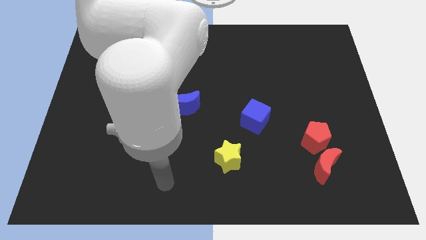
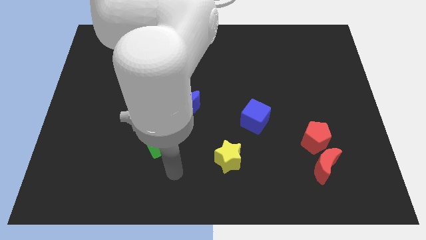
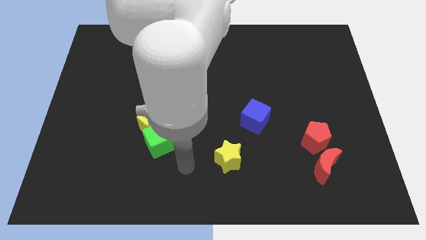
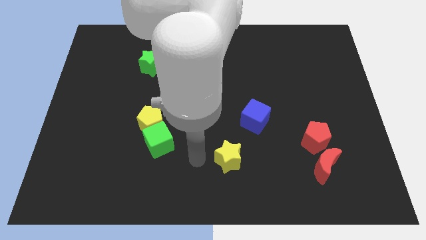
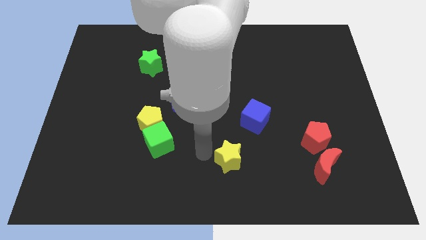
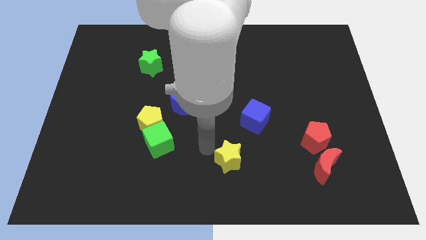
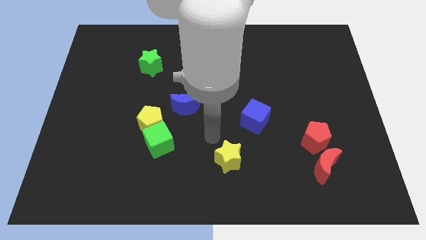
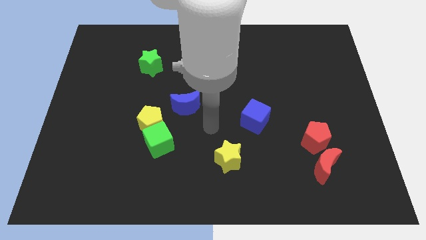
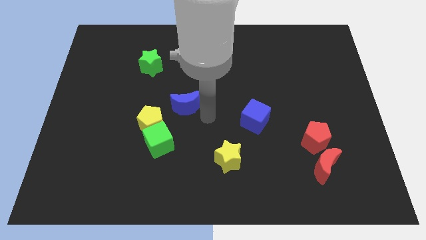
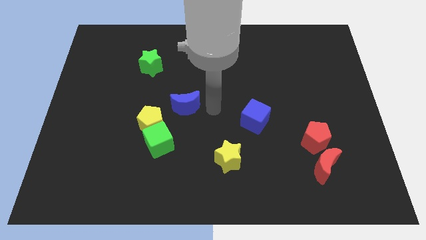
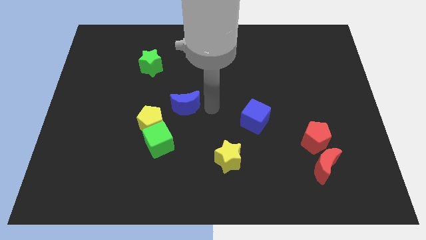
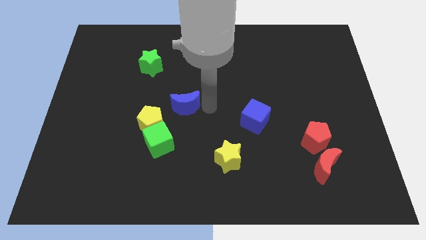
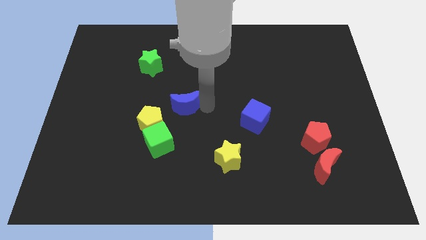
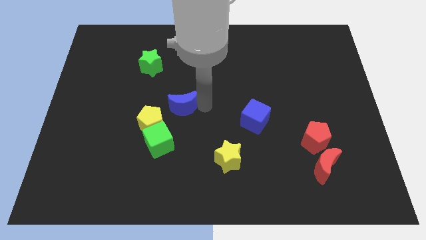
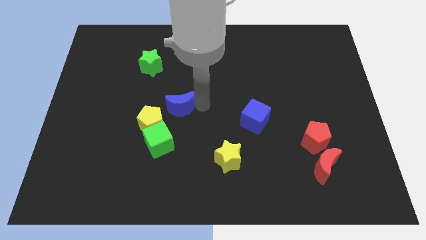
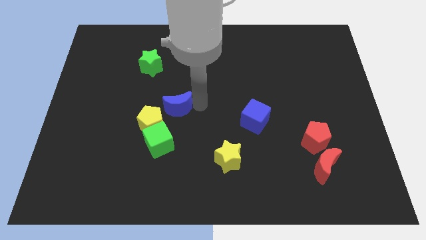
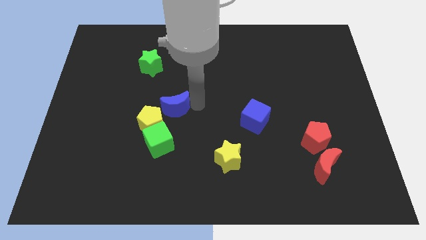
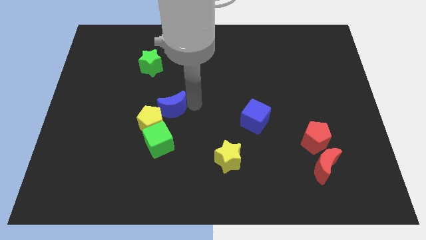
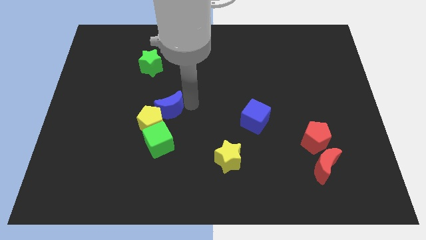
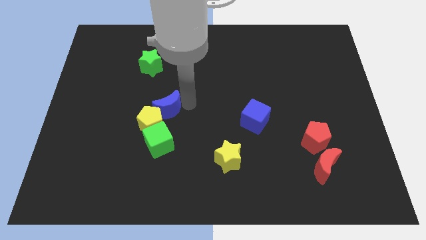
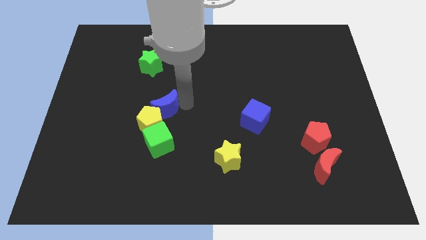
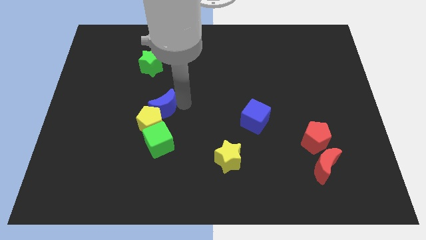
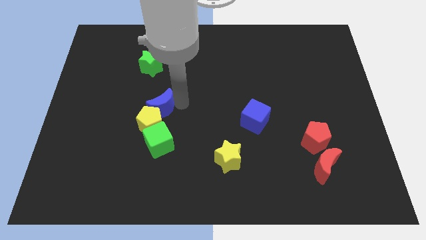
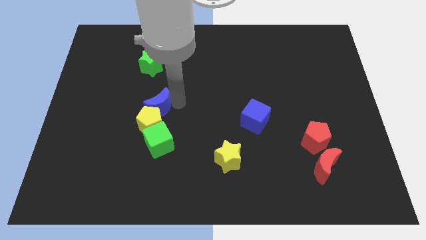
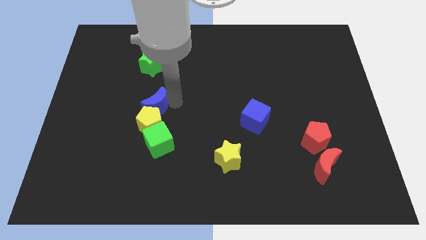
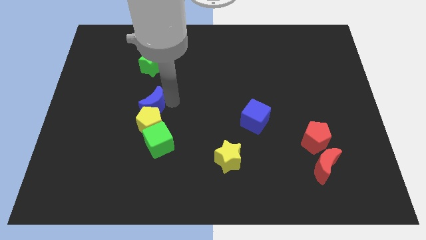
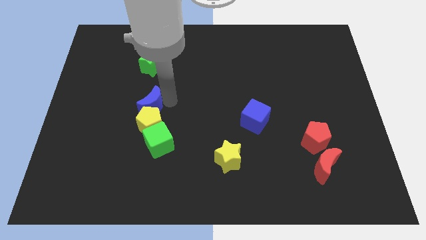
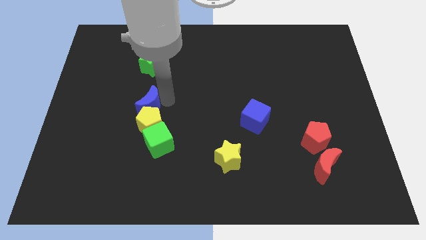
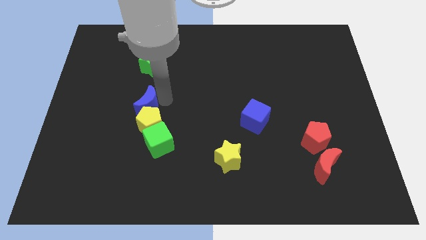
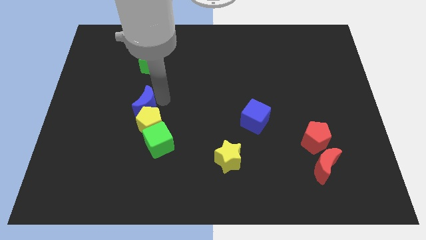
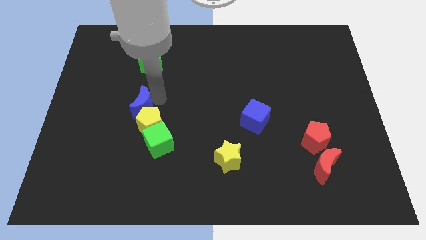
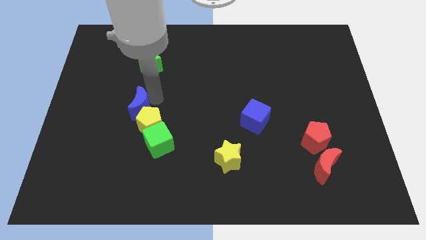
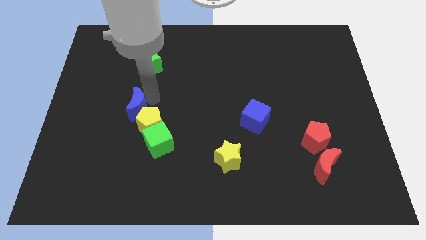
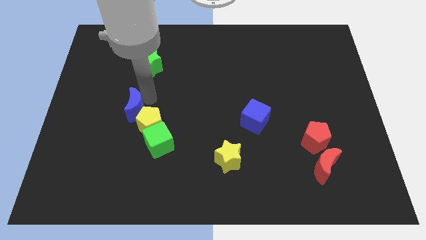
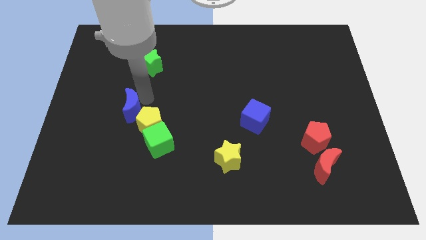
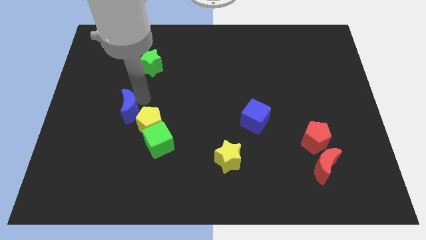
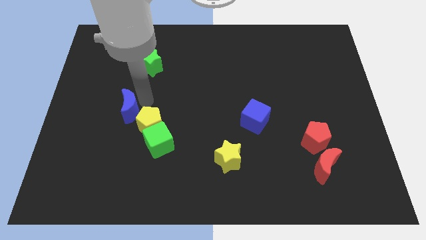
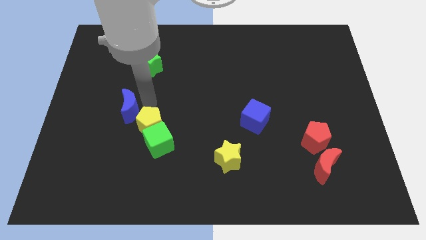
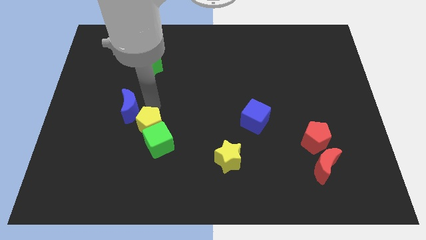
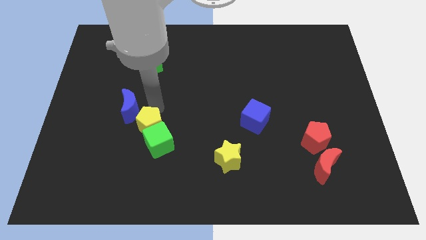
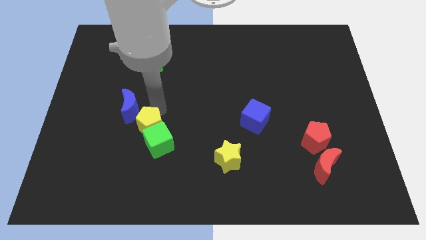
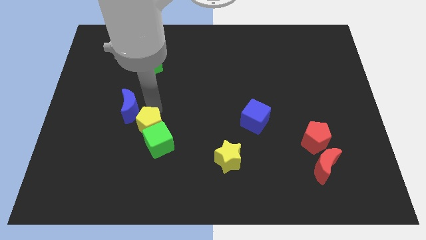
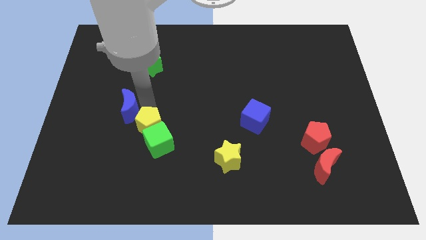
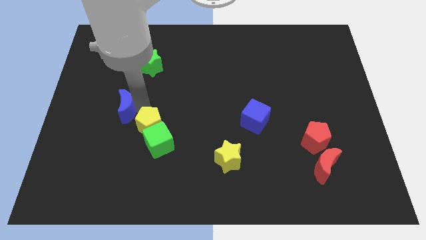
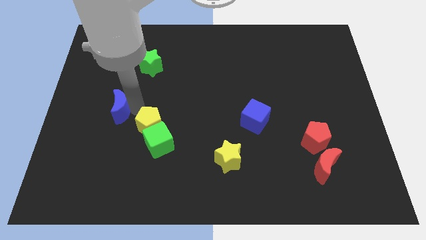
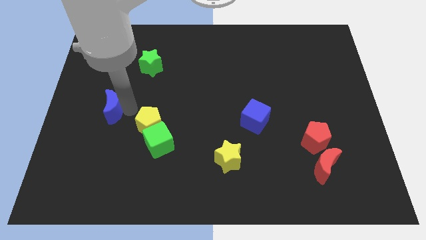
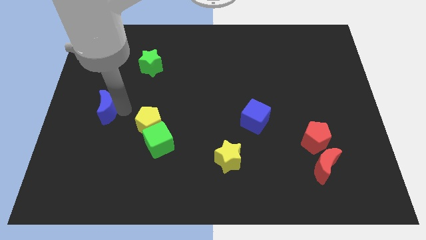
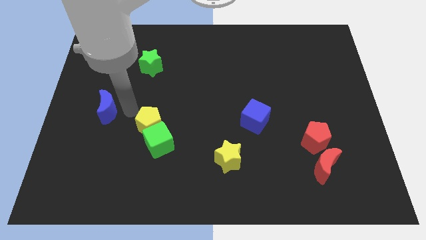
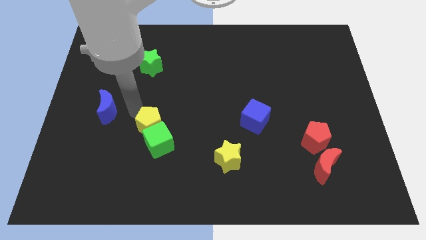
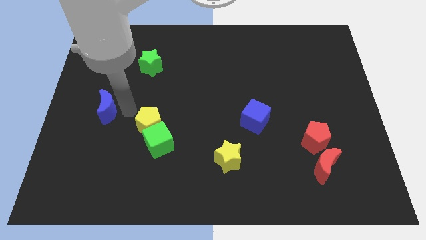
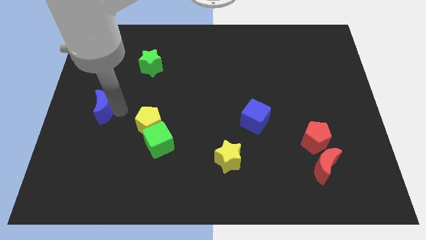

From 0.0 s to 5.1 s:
put the blue moon to the center left

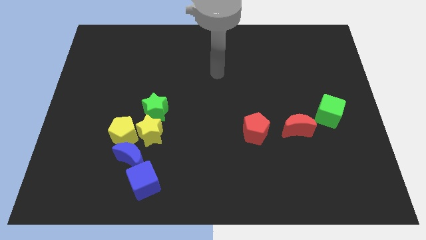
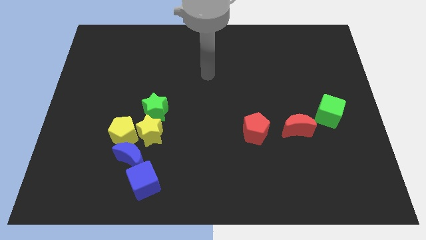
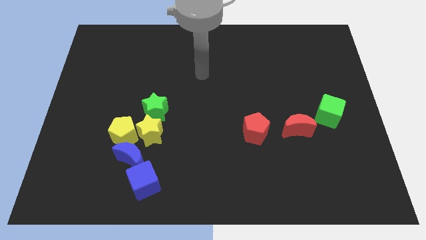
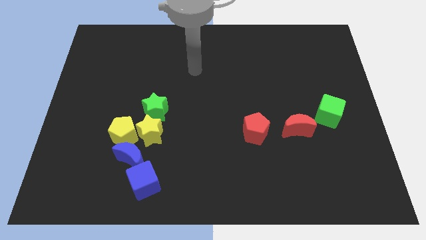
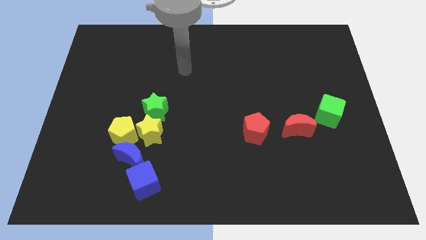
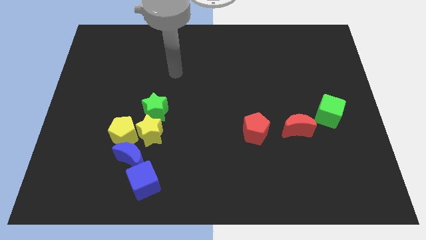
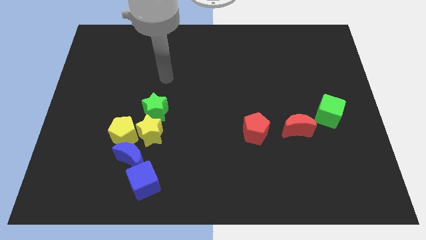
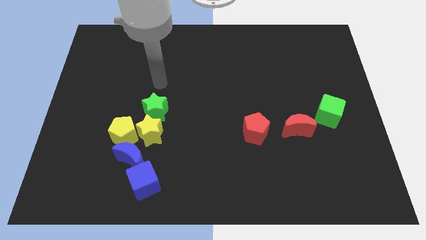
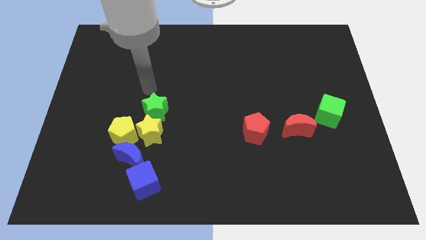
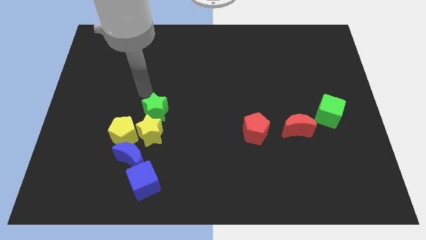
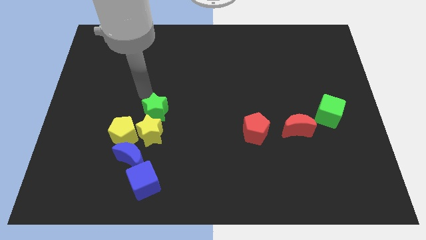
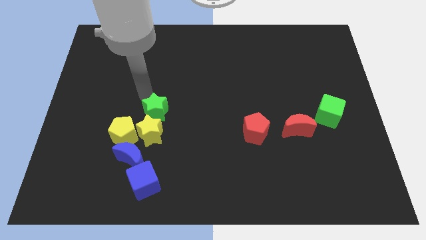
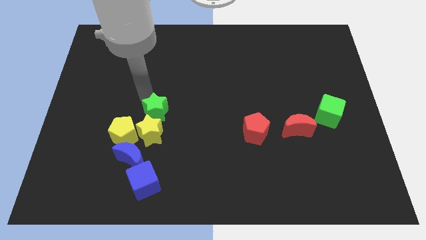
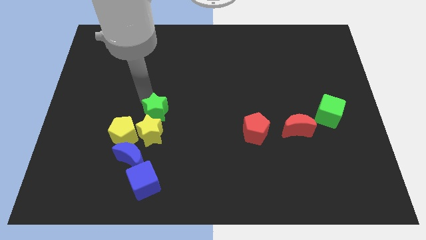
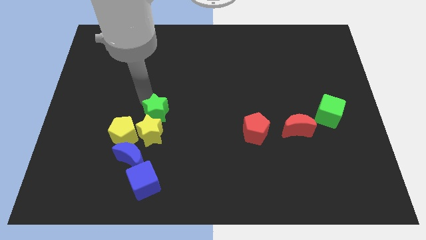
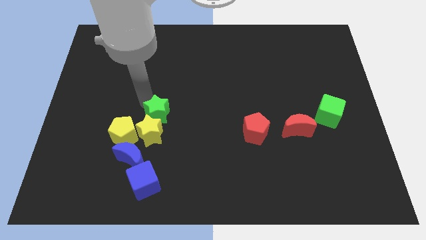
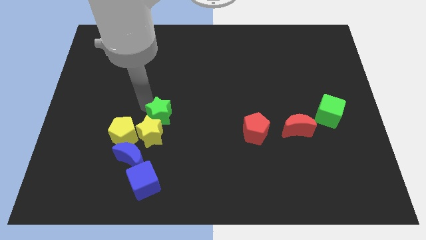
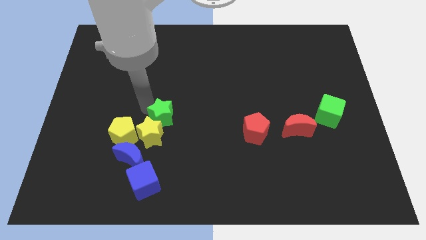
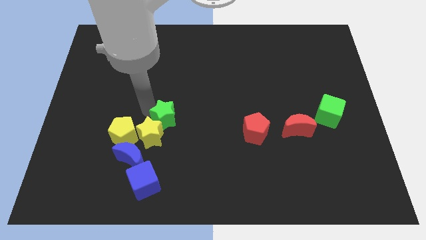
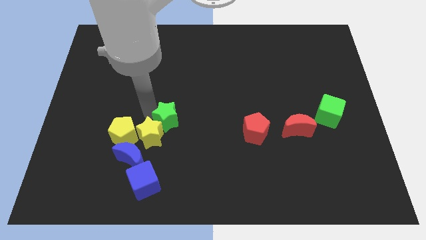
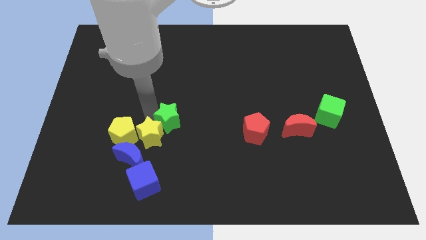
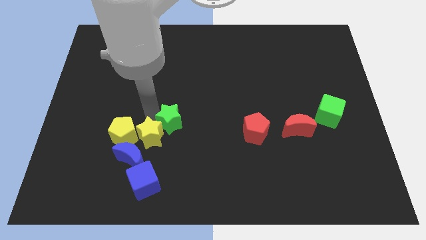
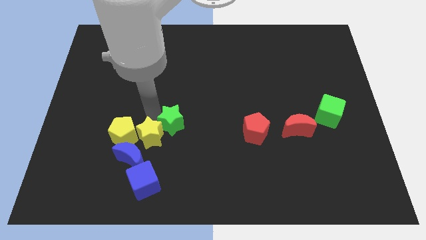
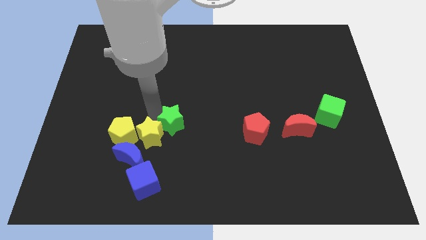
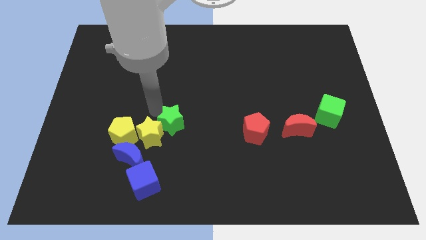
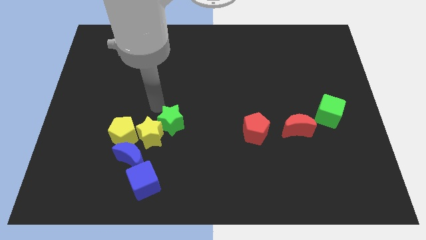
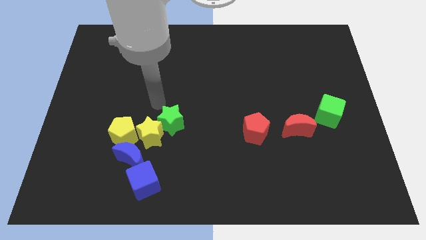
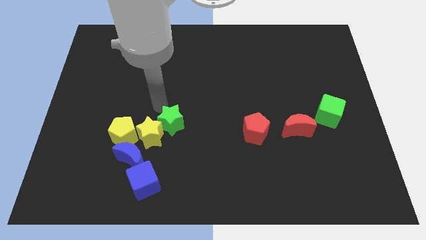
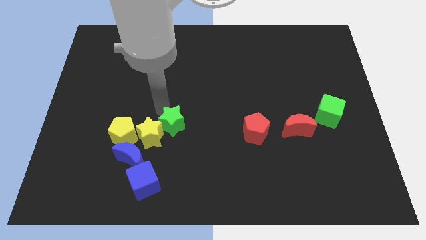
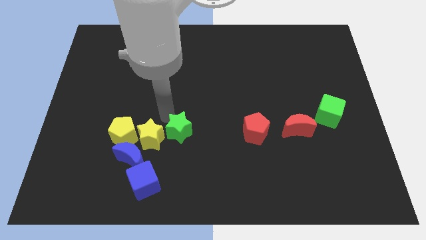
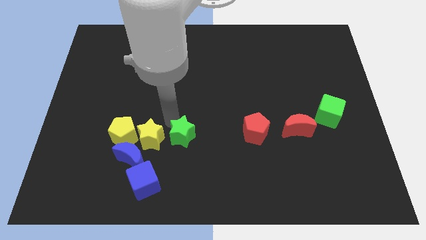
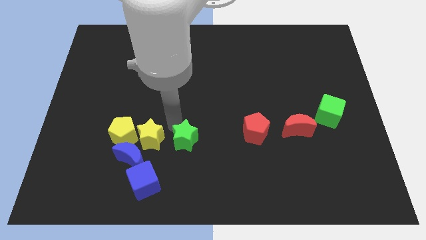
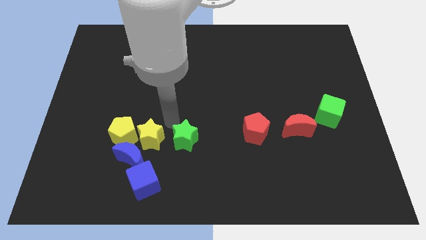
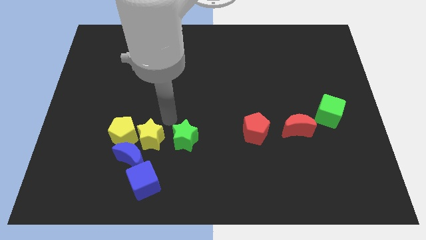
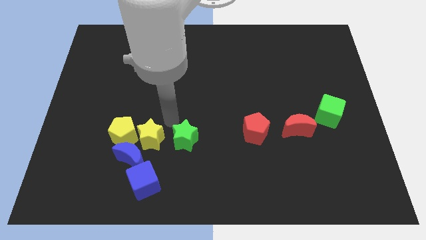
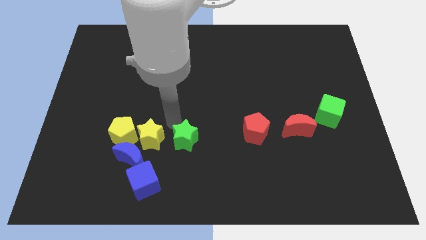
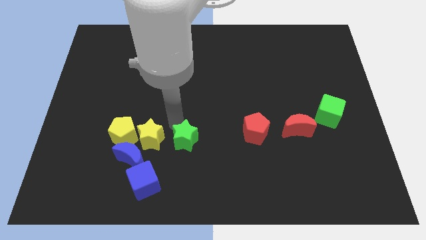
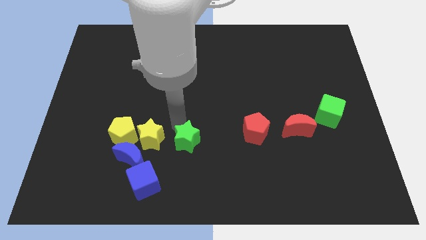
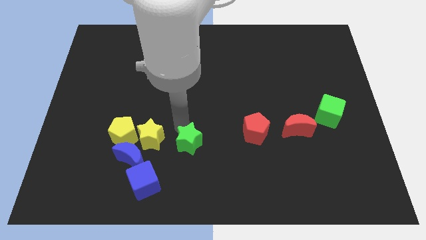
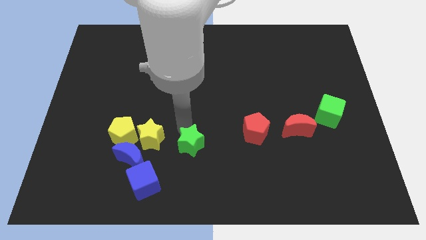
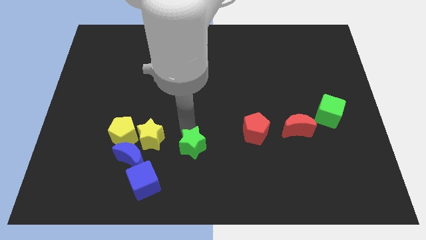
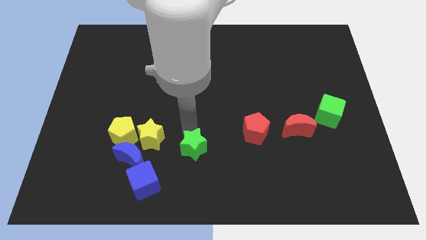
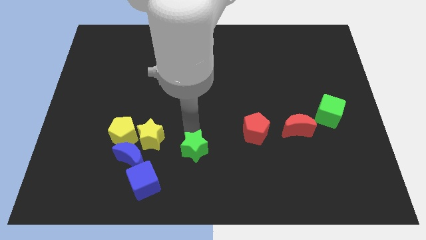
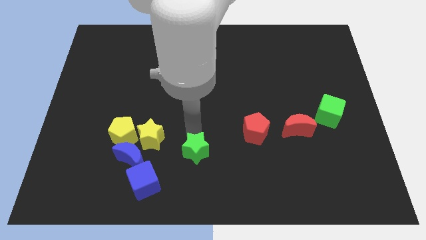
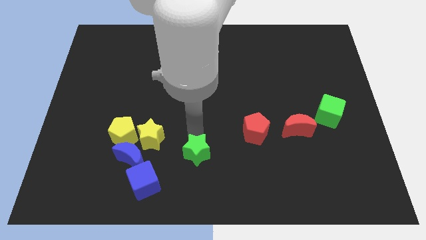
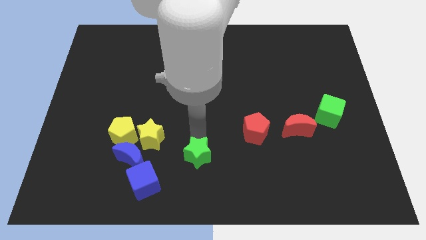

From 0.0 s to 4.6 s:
put the green star to the bottom
